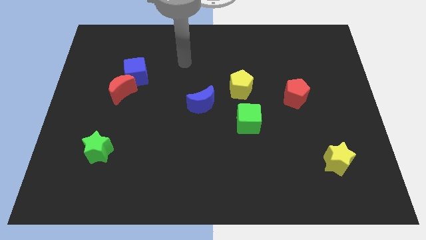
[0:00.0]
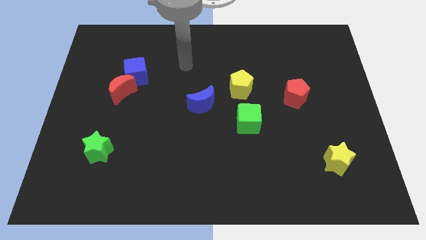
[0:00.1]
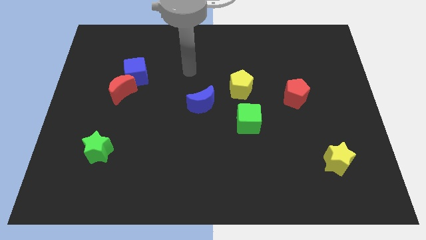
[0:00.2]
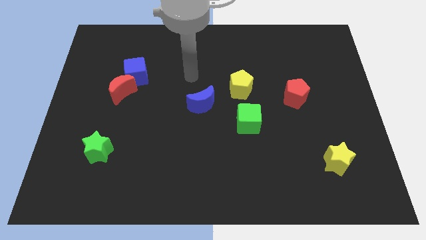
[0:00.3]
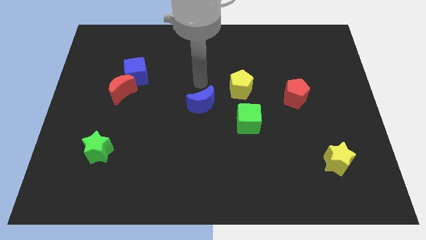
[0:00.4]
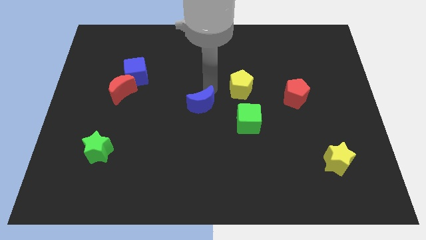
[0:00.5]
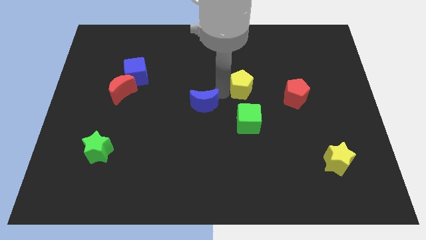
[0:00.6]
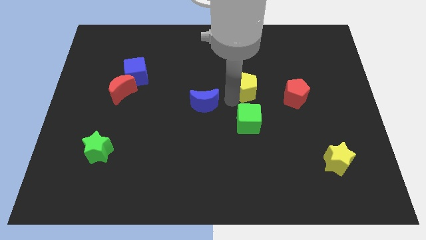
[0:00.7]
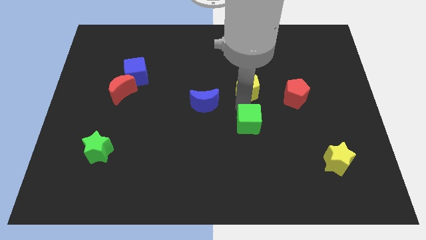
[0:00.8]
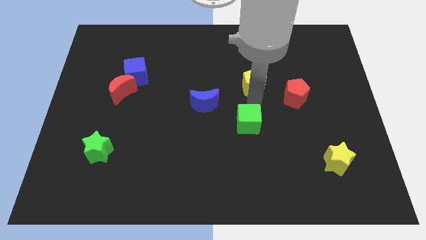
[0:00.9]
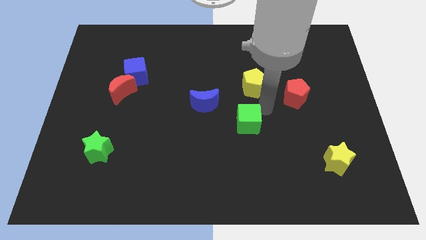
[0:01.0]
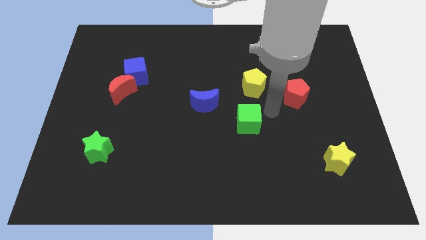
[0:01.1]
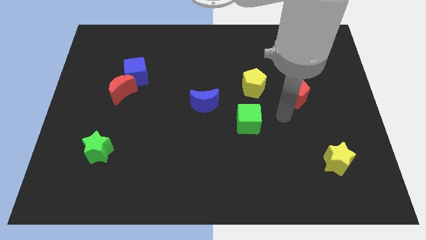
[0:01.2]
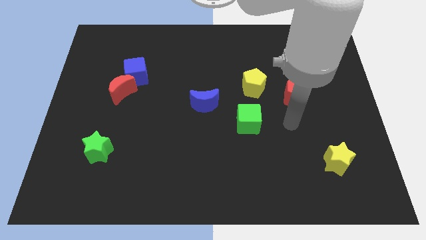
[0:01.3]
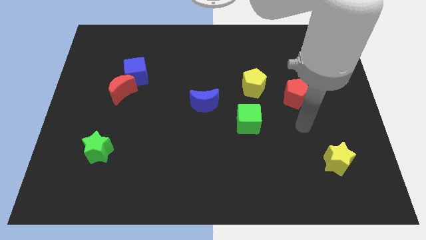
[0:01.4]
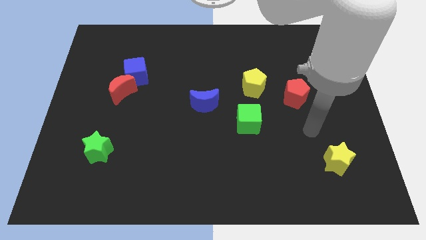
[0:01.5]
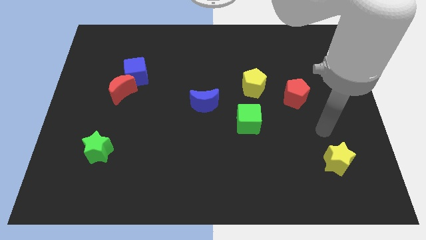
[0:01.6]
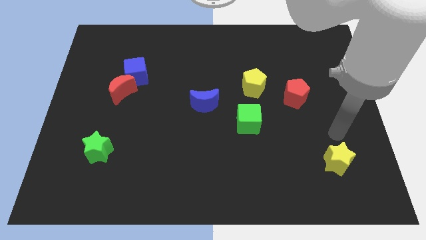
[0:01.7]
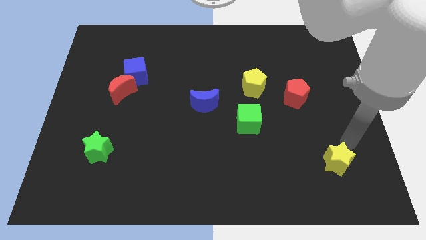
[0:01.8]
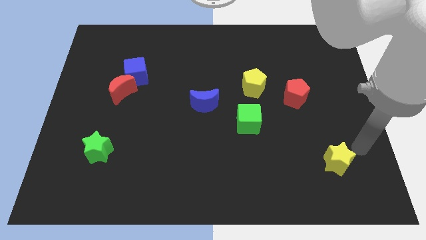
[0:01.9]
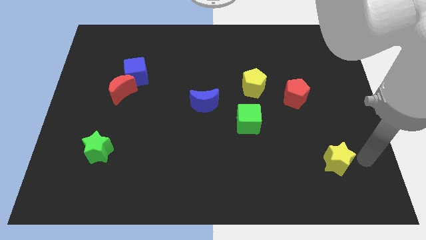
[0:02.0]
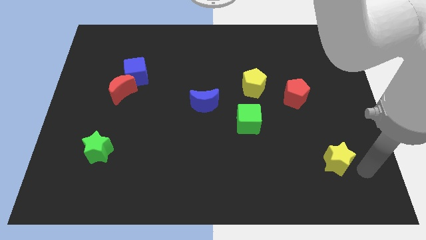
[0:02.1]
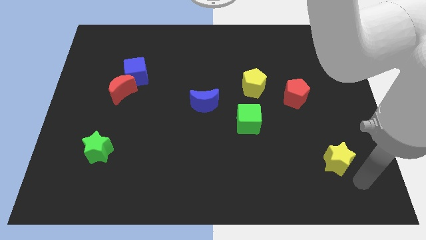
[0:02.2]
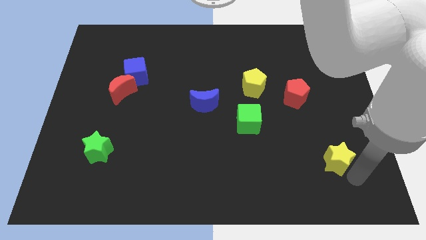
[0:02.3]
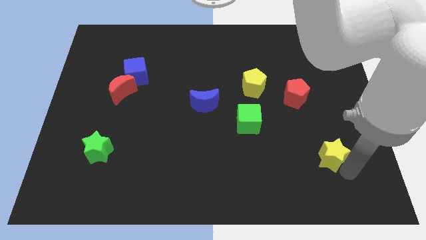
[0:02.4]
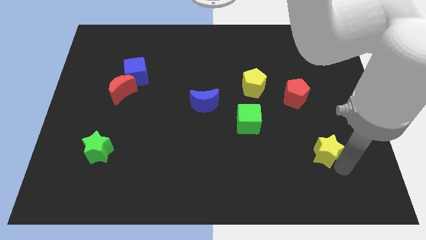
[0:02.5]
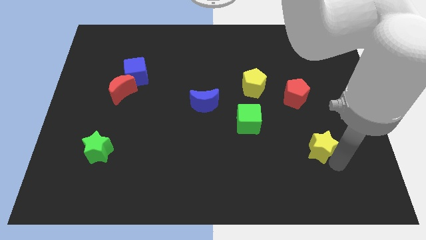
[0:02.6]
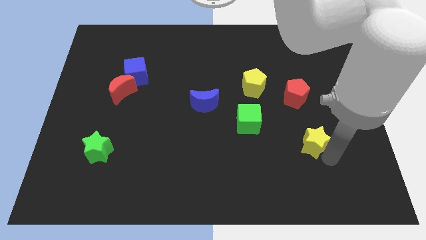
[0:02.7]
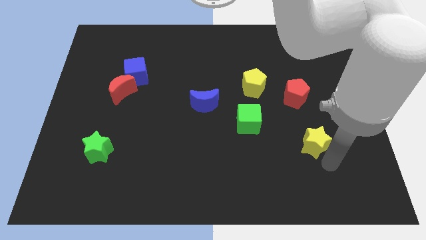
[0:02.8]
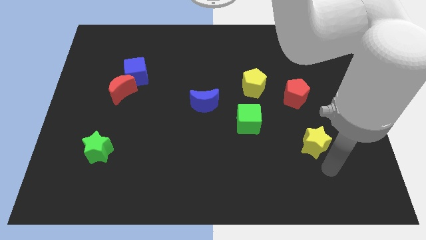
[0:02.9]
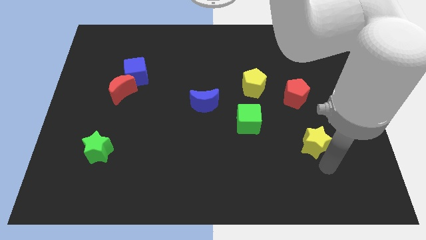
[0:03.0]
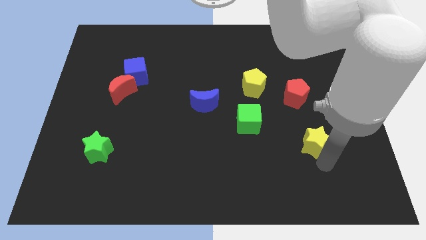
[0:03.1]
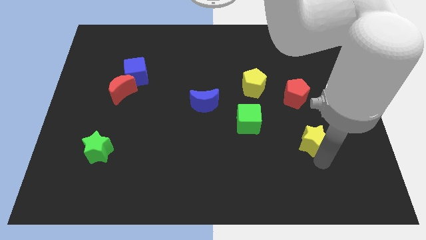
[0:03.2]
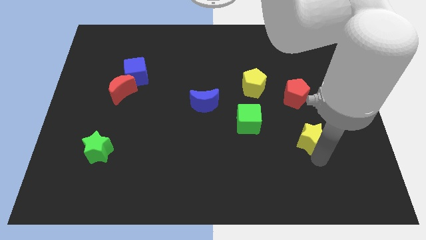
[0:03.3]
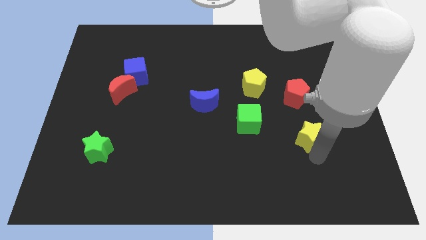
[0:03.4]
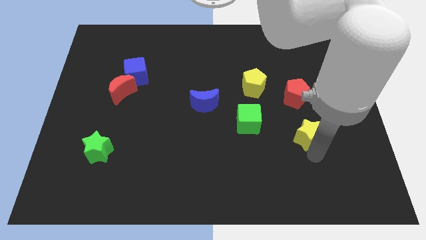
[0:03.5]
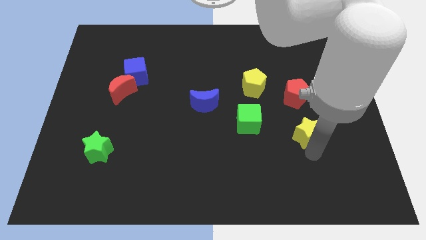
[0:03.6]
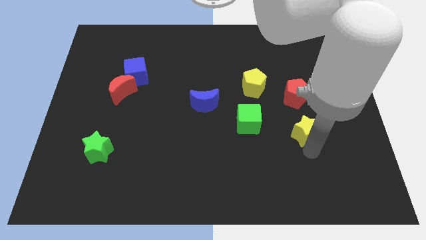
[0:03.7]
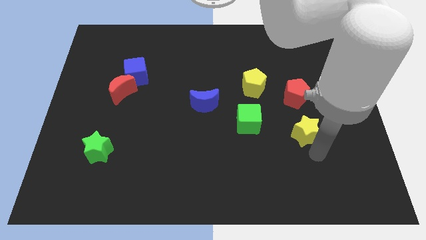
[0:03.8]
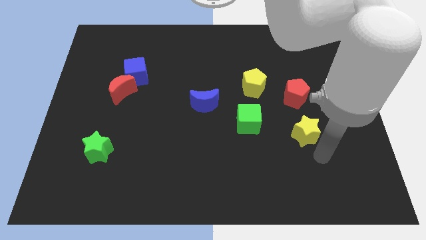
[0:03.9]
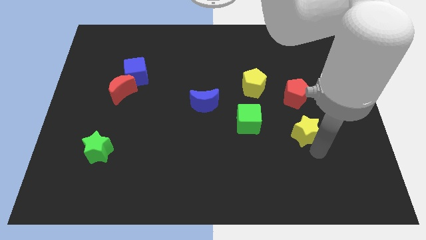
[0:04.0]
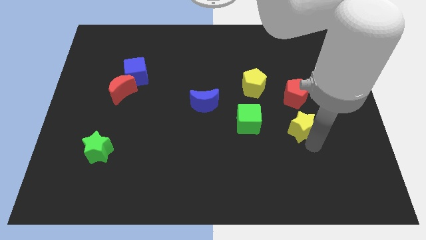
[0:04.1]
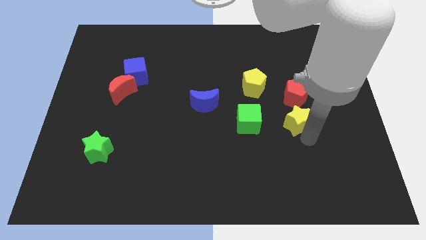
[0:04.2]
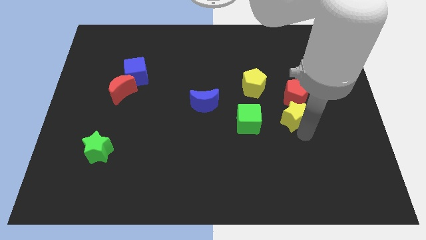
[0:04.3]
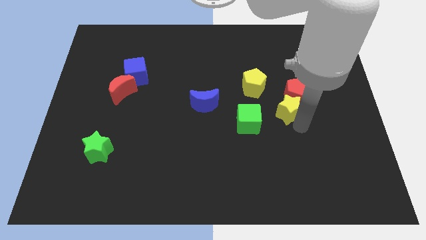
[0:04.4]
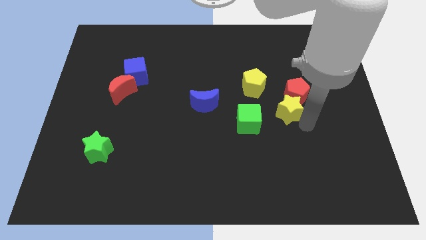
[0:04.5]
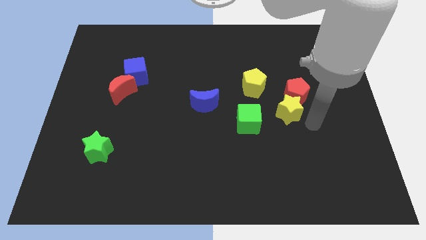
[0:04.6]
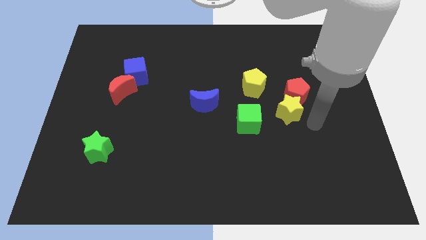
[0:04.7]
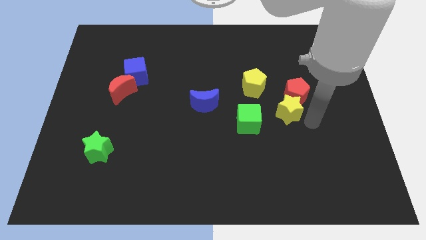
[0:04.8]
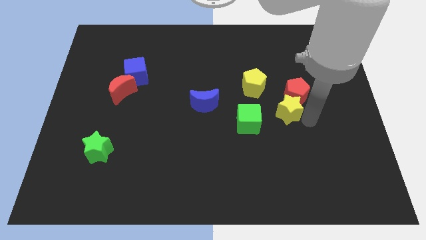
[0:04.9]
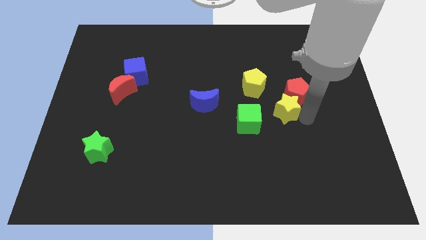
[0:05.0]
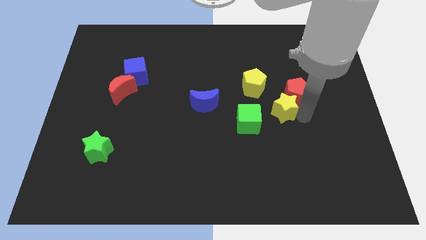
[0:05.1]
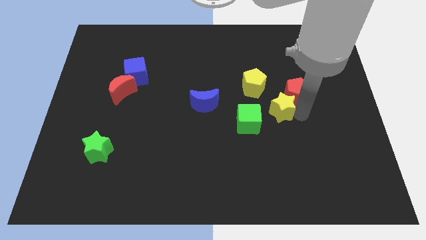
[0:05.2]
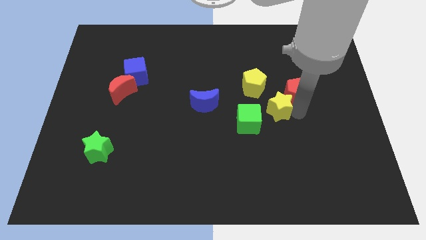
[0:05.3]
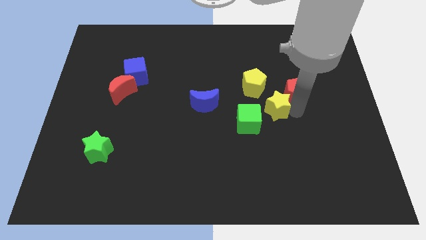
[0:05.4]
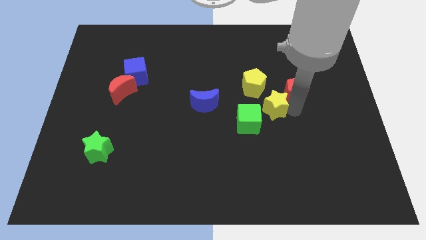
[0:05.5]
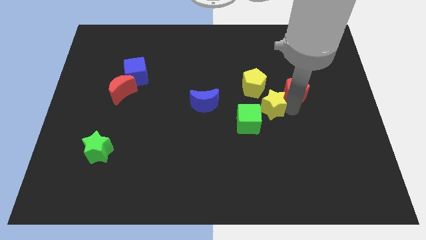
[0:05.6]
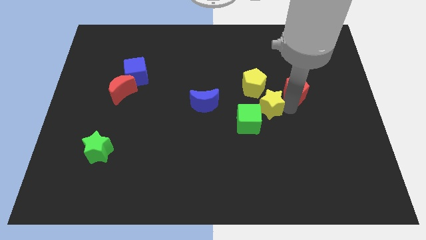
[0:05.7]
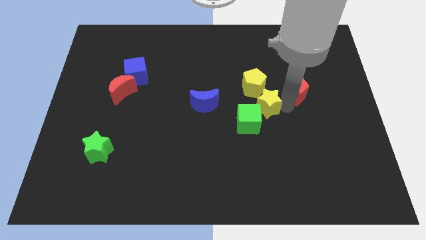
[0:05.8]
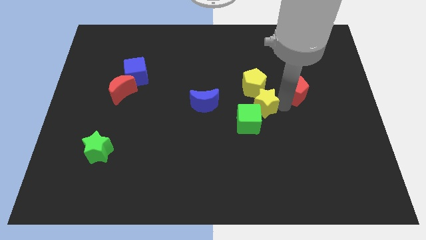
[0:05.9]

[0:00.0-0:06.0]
push the yellow star close to the yellow pentagon

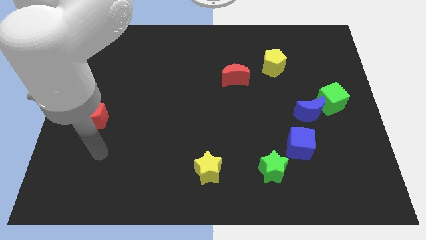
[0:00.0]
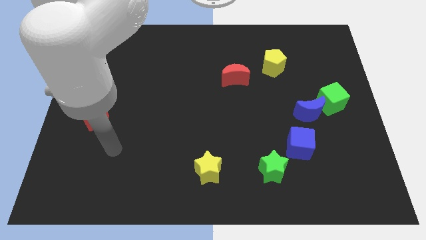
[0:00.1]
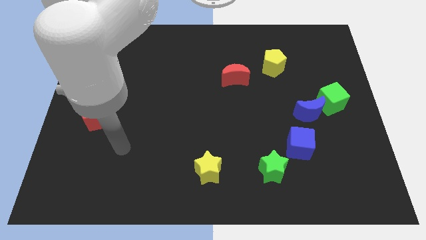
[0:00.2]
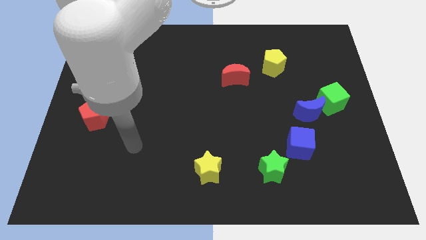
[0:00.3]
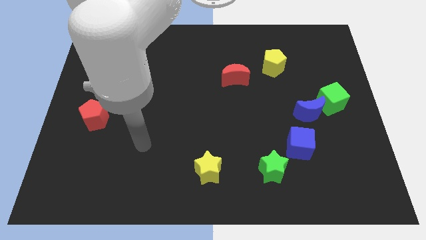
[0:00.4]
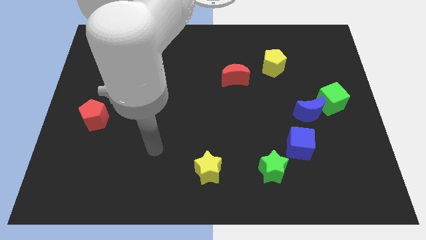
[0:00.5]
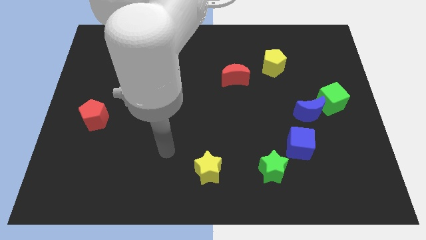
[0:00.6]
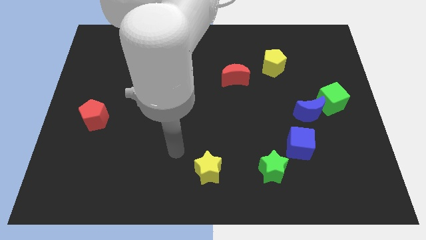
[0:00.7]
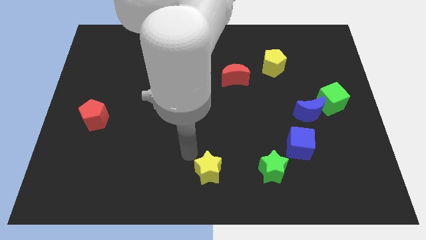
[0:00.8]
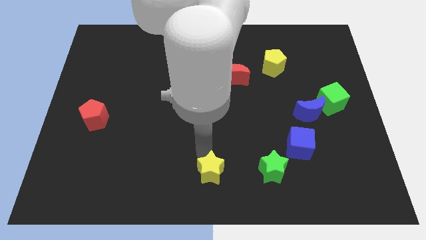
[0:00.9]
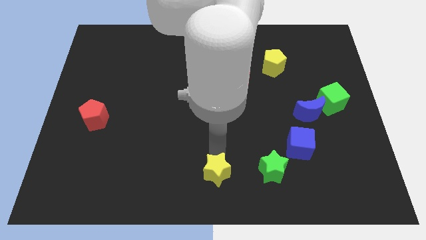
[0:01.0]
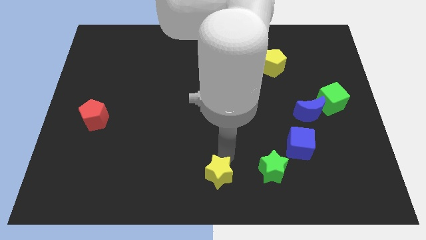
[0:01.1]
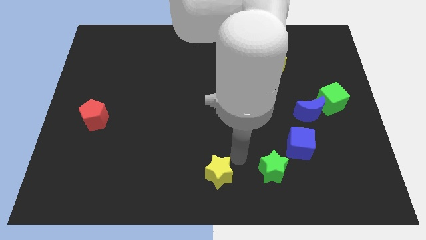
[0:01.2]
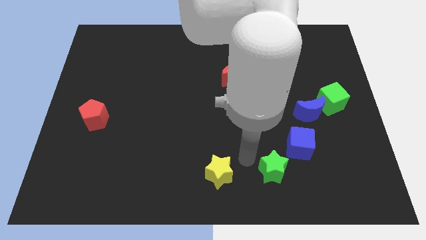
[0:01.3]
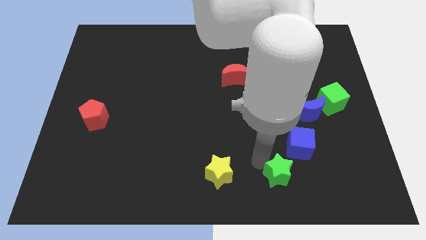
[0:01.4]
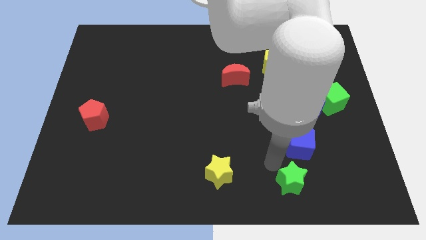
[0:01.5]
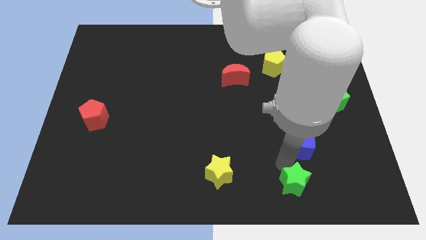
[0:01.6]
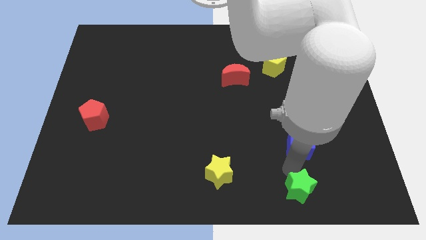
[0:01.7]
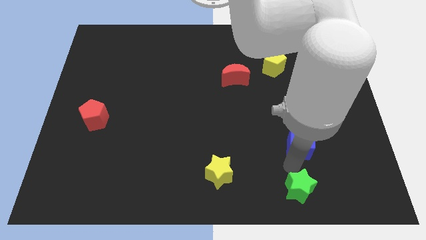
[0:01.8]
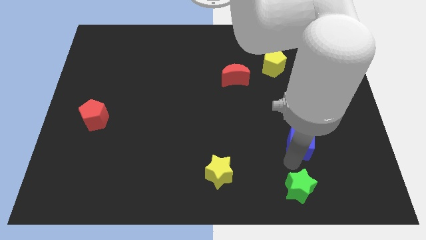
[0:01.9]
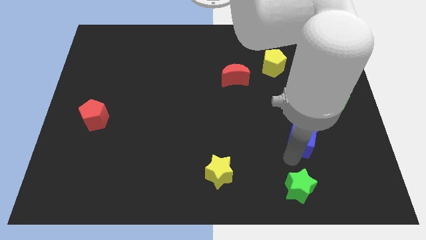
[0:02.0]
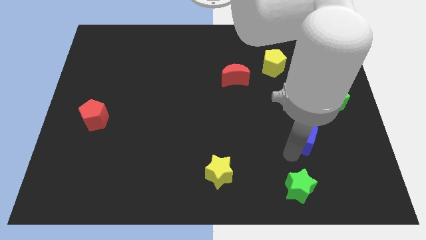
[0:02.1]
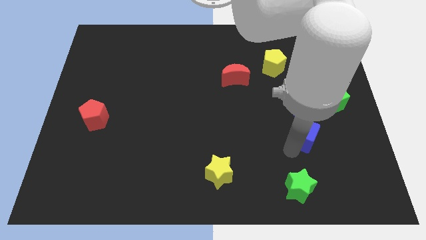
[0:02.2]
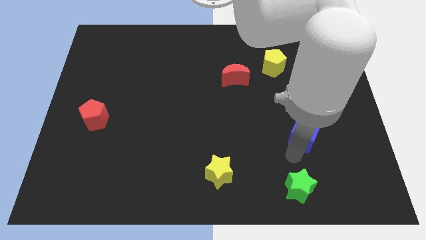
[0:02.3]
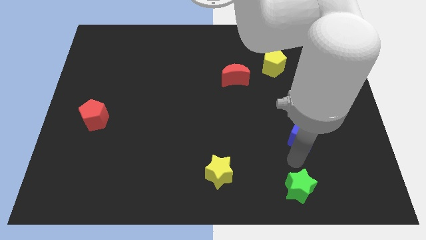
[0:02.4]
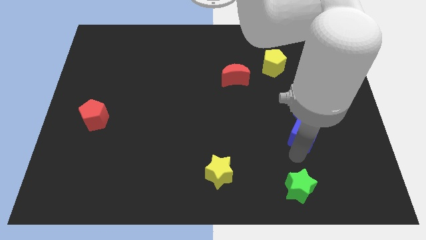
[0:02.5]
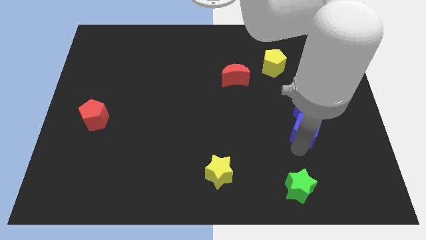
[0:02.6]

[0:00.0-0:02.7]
push the blue cube close to the blue moon
